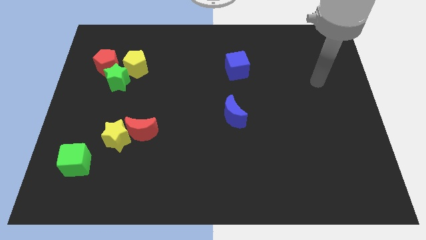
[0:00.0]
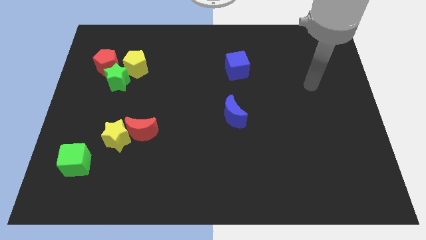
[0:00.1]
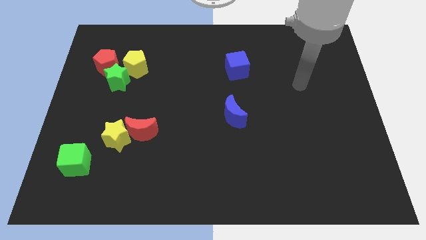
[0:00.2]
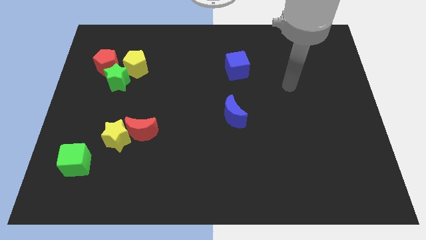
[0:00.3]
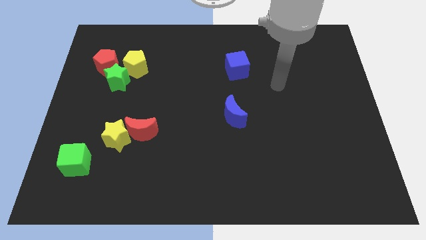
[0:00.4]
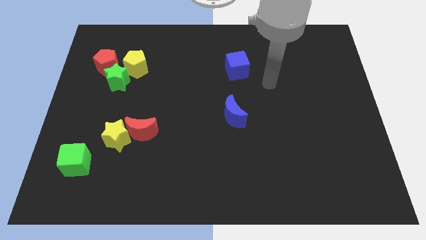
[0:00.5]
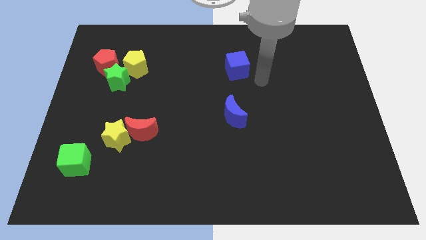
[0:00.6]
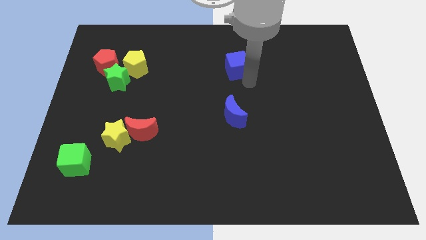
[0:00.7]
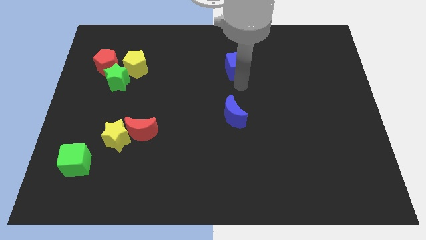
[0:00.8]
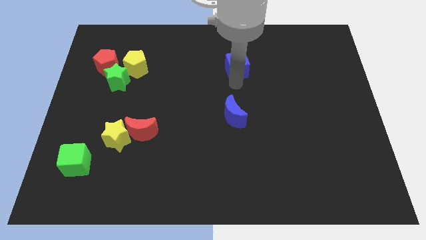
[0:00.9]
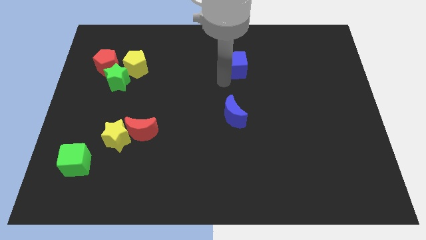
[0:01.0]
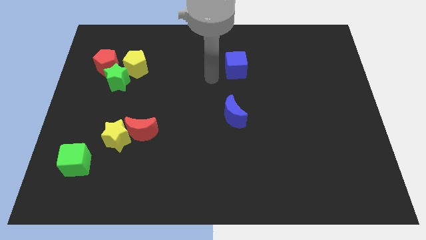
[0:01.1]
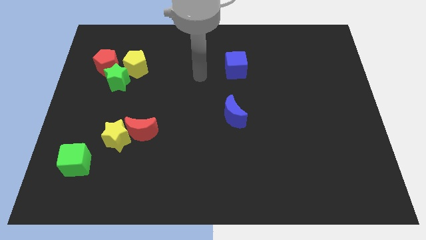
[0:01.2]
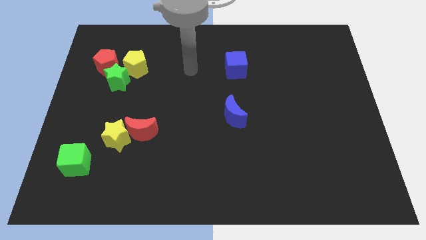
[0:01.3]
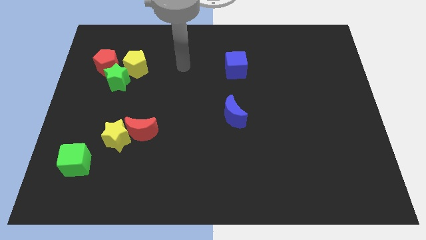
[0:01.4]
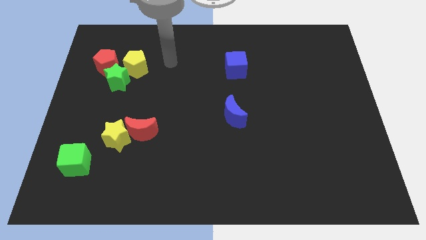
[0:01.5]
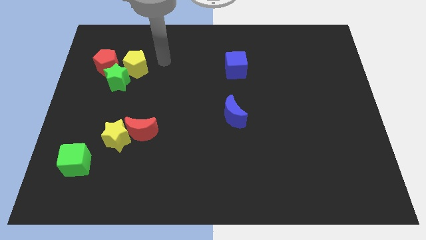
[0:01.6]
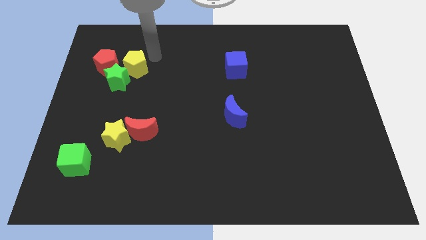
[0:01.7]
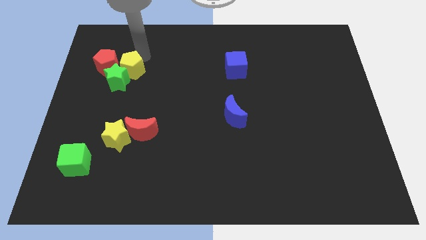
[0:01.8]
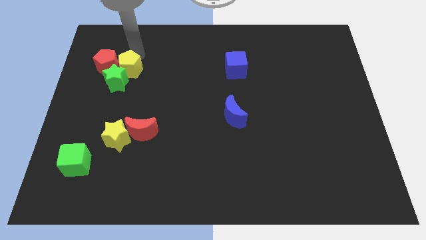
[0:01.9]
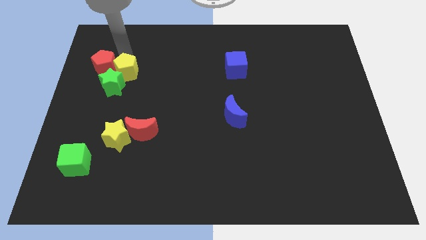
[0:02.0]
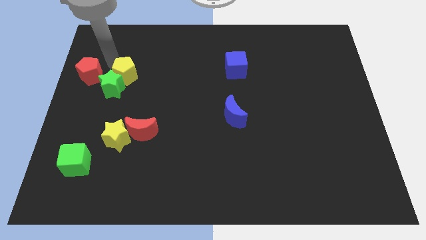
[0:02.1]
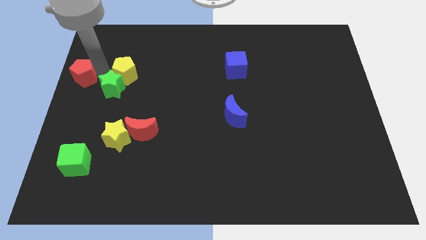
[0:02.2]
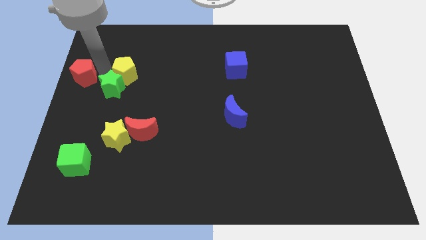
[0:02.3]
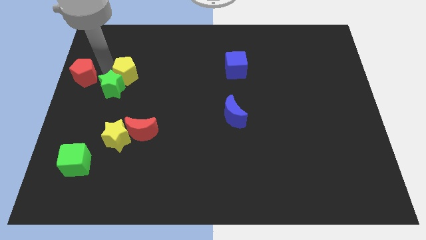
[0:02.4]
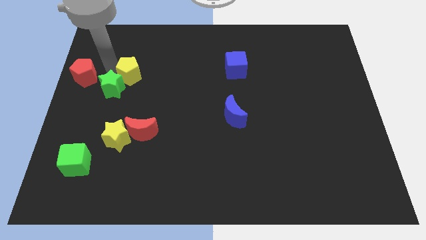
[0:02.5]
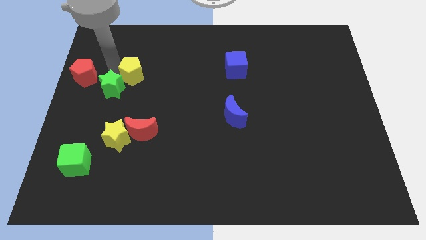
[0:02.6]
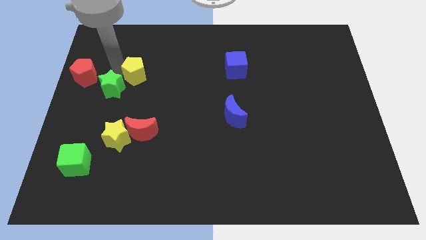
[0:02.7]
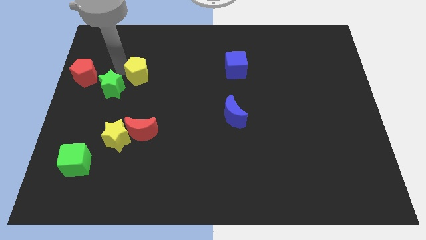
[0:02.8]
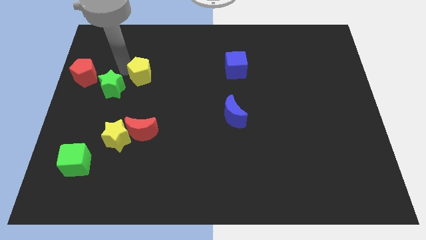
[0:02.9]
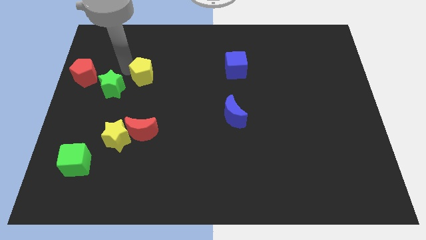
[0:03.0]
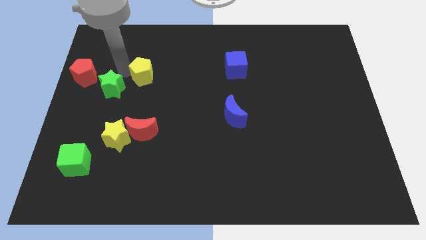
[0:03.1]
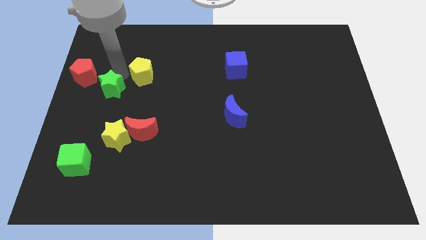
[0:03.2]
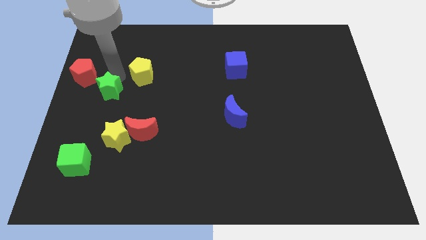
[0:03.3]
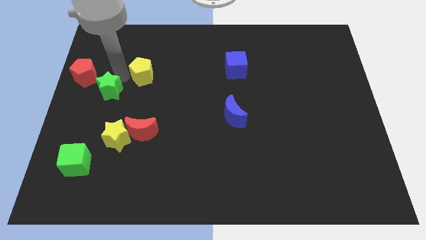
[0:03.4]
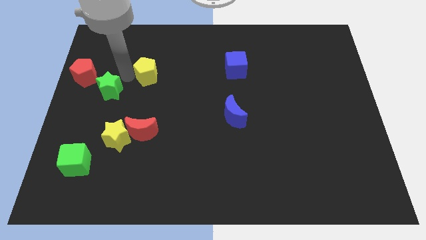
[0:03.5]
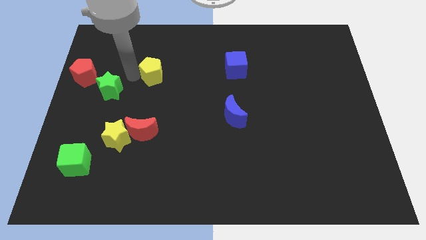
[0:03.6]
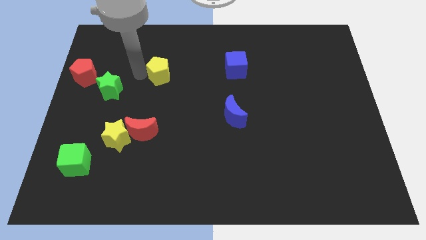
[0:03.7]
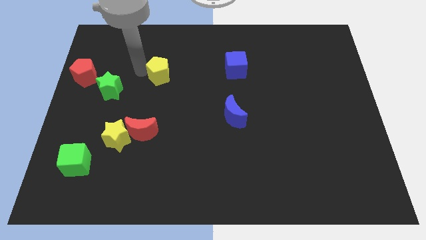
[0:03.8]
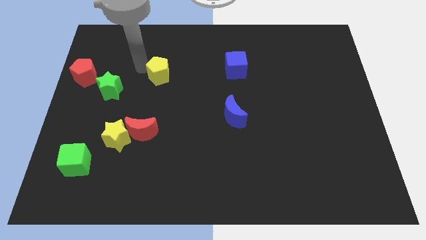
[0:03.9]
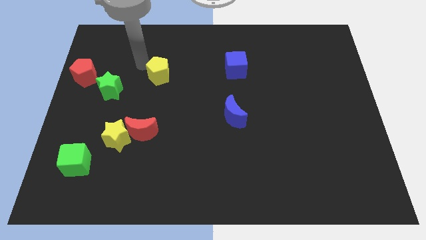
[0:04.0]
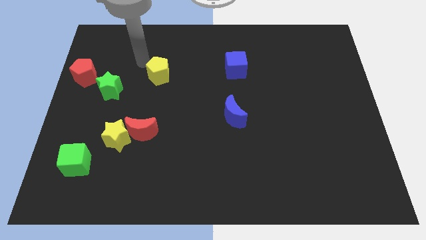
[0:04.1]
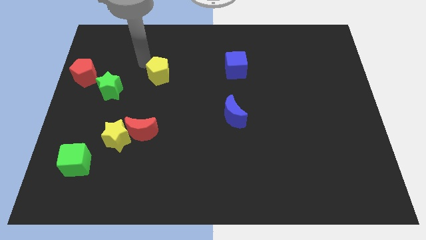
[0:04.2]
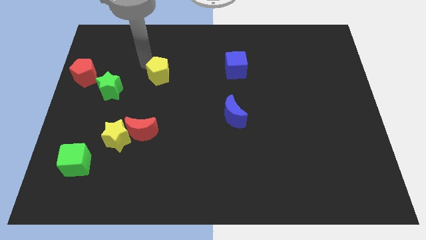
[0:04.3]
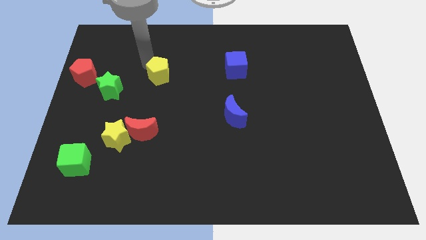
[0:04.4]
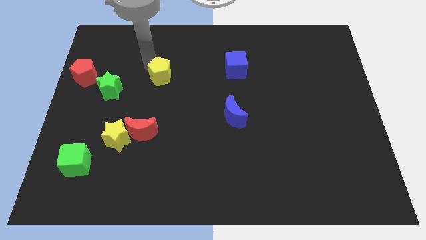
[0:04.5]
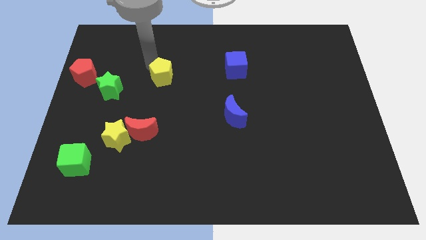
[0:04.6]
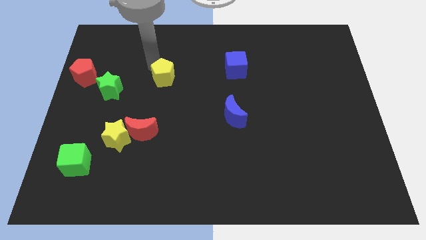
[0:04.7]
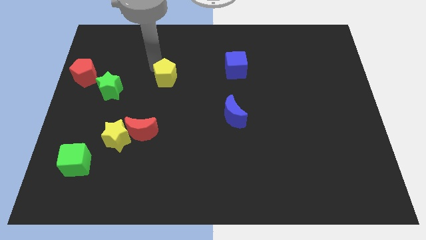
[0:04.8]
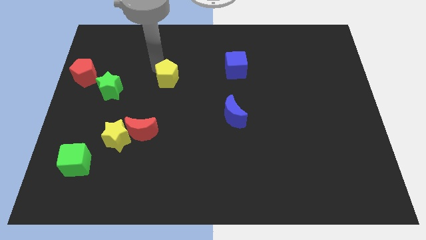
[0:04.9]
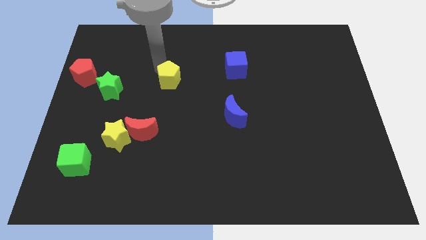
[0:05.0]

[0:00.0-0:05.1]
push the yellow pentagon to the middle of the board

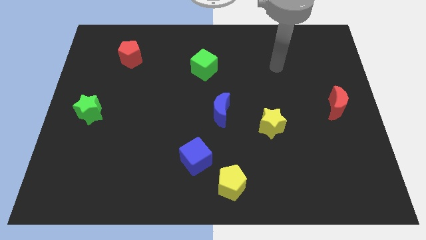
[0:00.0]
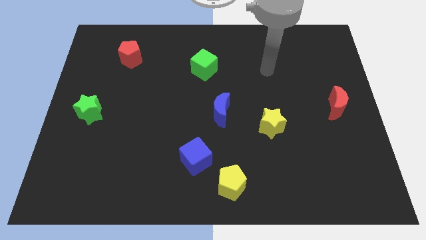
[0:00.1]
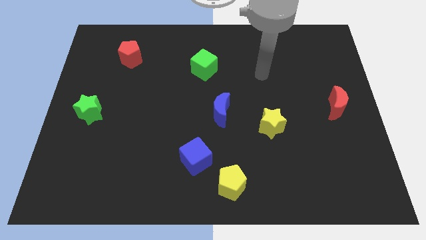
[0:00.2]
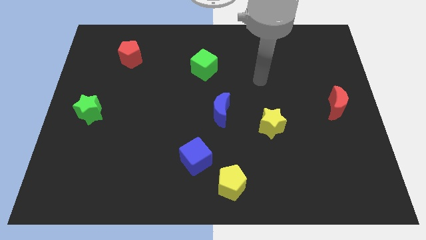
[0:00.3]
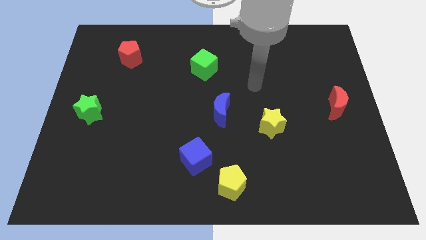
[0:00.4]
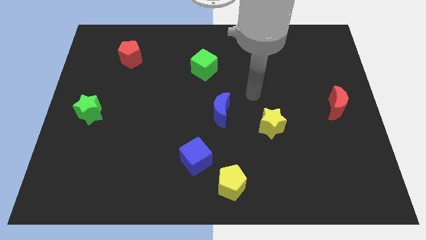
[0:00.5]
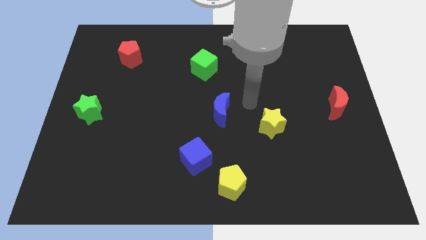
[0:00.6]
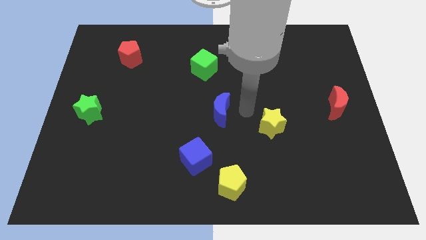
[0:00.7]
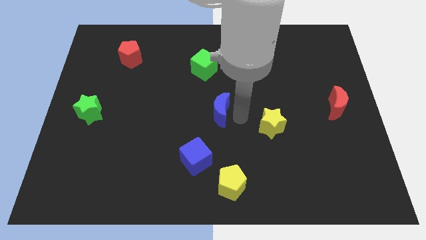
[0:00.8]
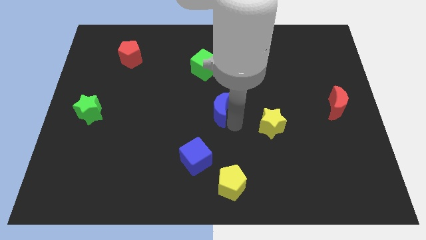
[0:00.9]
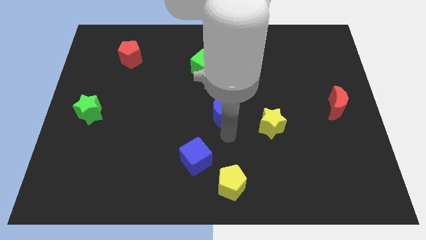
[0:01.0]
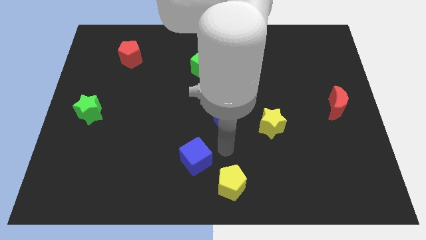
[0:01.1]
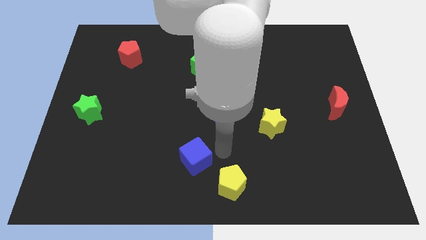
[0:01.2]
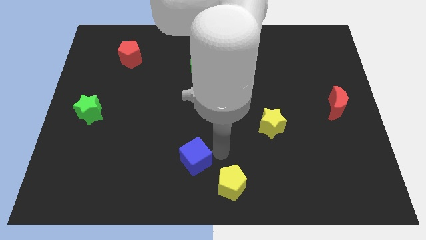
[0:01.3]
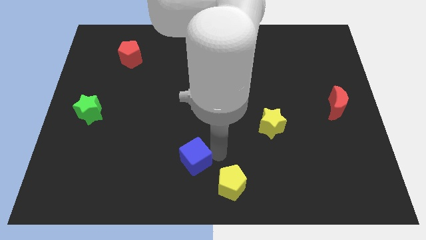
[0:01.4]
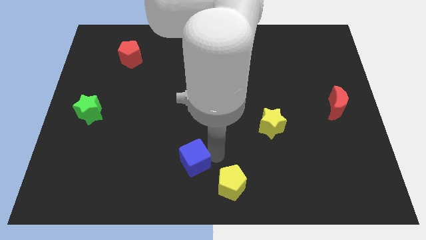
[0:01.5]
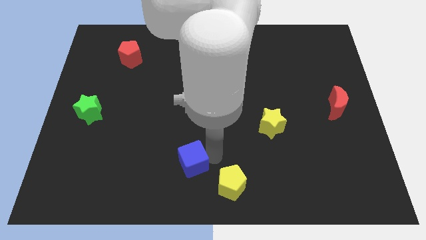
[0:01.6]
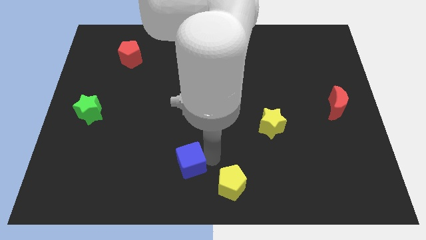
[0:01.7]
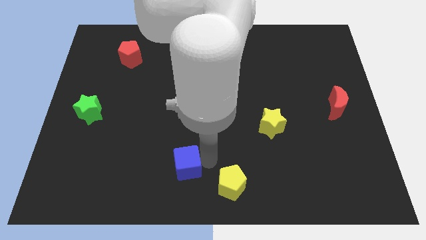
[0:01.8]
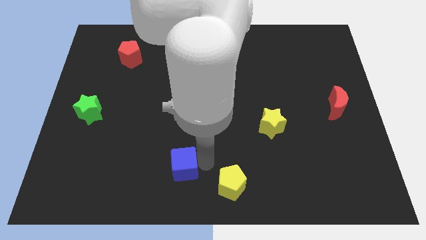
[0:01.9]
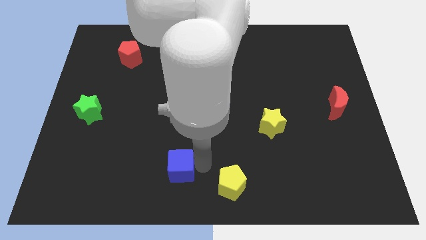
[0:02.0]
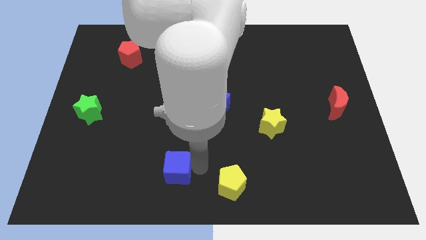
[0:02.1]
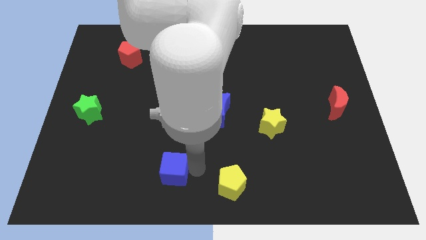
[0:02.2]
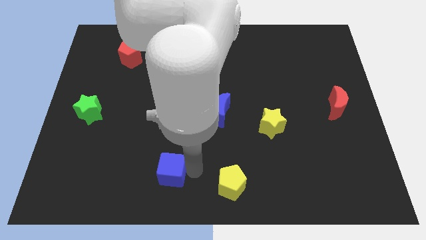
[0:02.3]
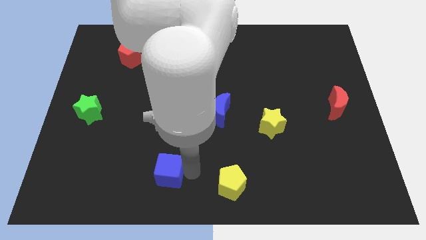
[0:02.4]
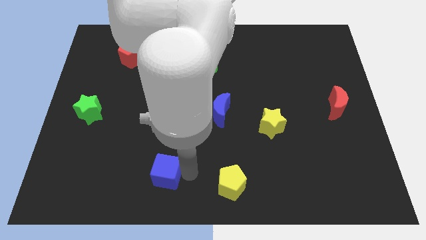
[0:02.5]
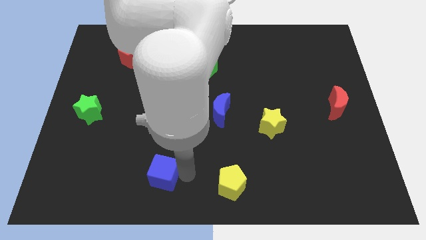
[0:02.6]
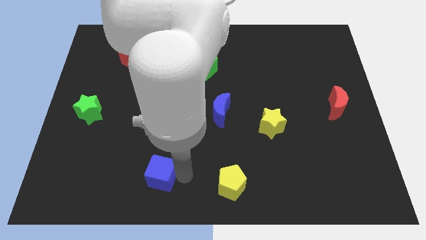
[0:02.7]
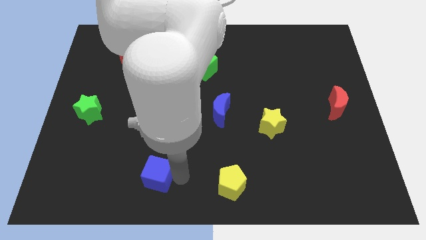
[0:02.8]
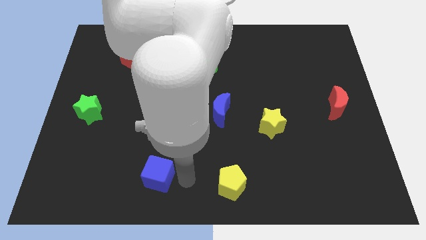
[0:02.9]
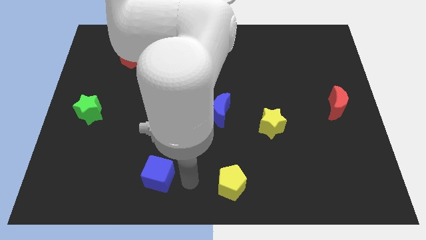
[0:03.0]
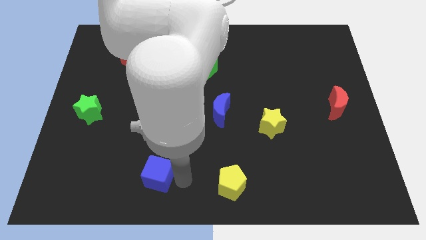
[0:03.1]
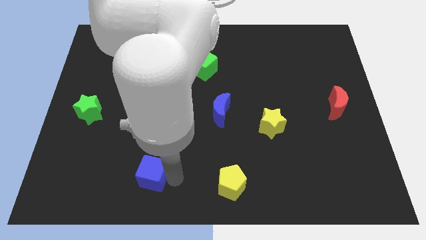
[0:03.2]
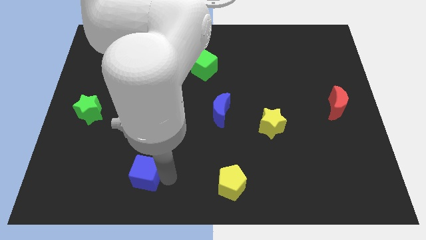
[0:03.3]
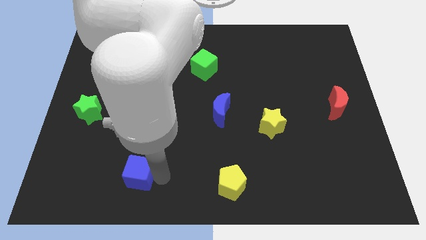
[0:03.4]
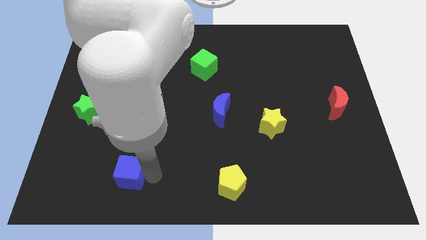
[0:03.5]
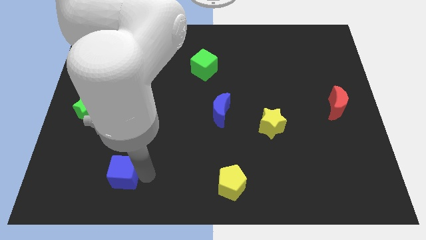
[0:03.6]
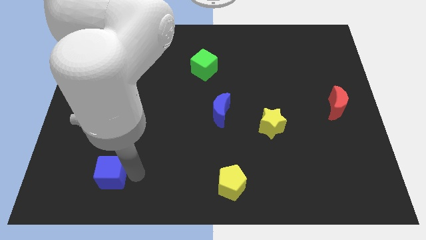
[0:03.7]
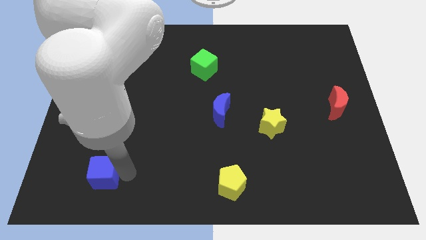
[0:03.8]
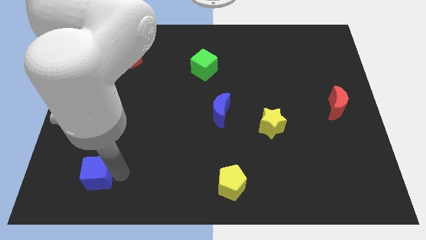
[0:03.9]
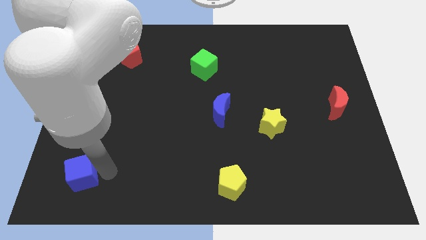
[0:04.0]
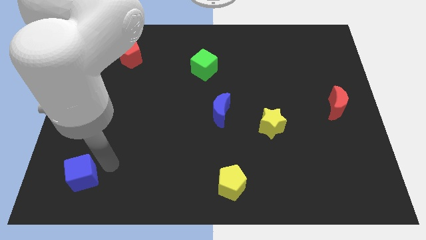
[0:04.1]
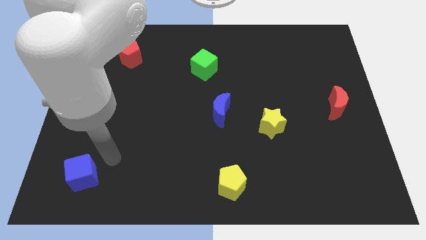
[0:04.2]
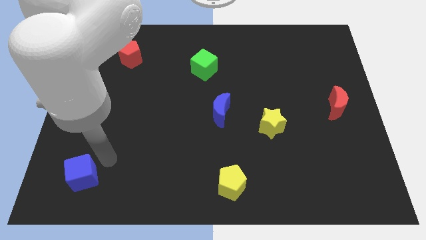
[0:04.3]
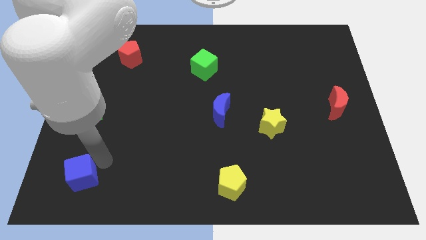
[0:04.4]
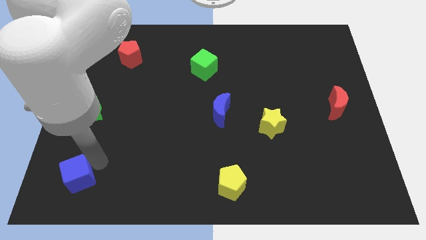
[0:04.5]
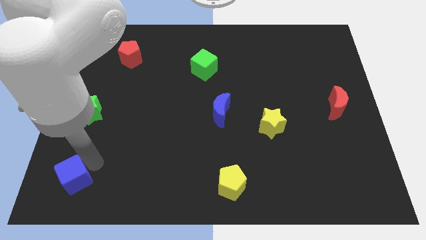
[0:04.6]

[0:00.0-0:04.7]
slide the blue cube to the lower left corner
